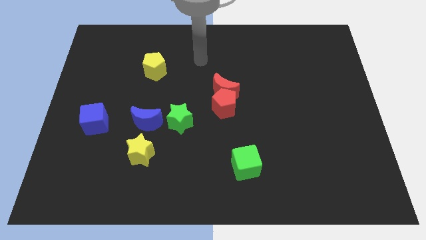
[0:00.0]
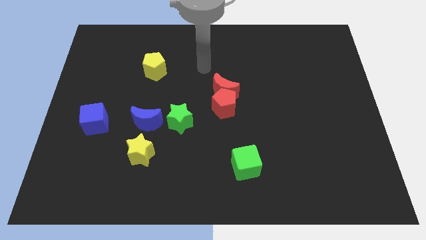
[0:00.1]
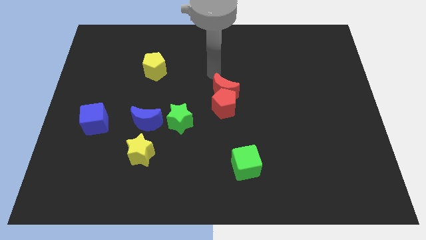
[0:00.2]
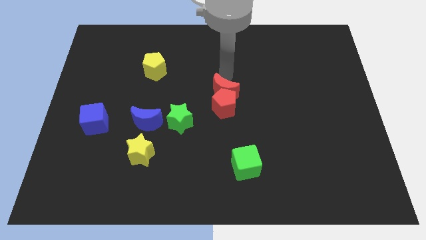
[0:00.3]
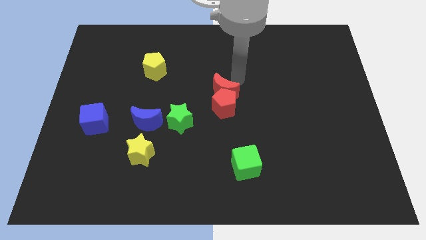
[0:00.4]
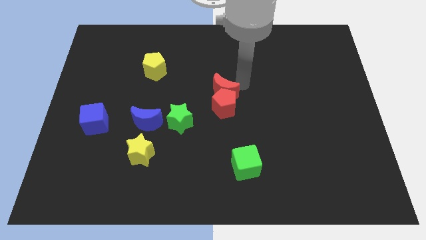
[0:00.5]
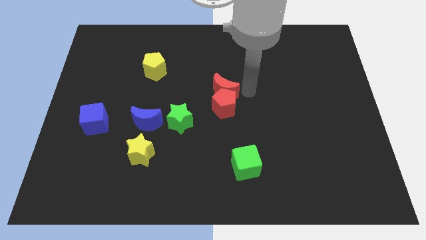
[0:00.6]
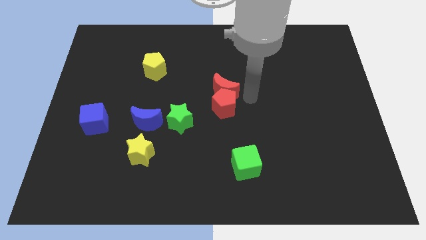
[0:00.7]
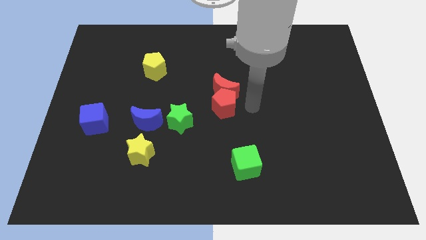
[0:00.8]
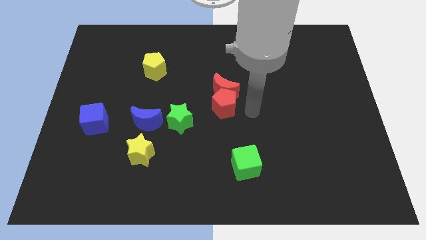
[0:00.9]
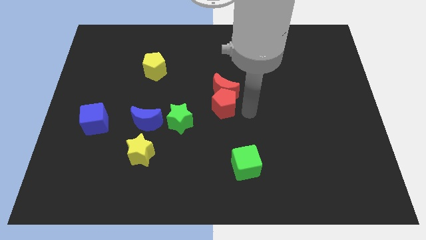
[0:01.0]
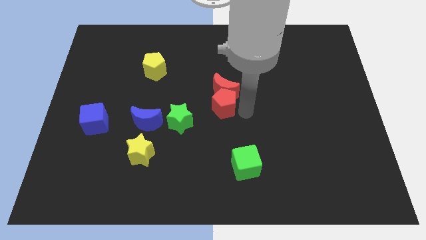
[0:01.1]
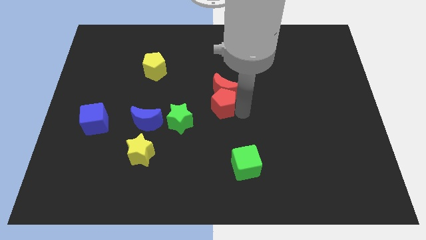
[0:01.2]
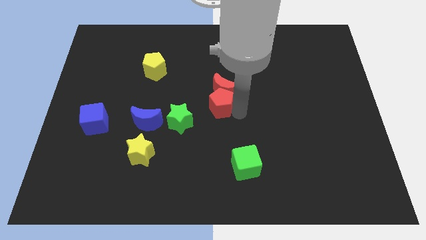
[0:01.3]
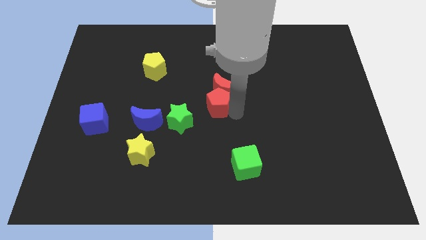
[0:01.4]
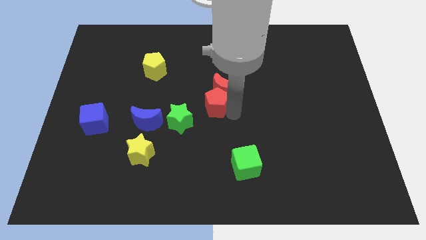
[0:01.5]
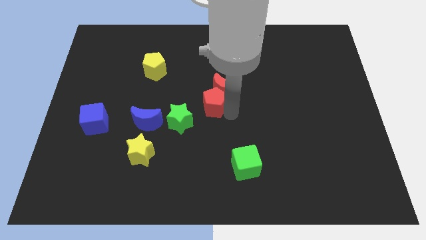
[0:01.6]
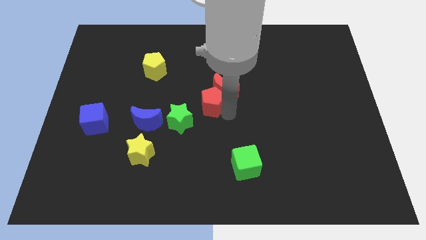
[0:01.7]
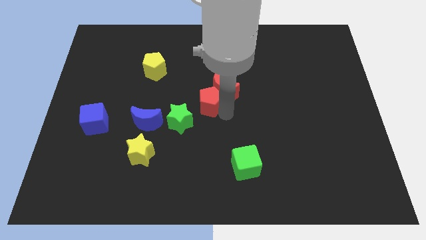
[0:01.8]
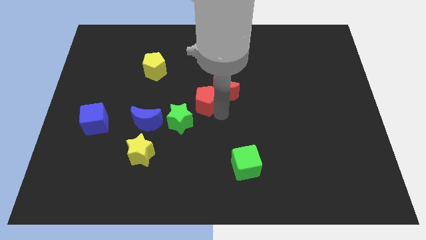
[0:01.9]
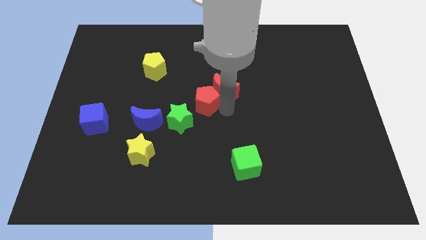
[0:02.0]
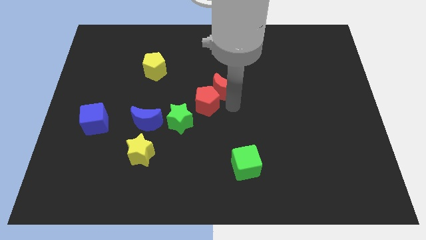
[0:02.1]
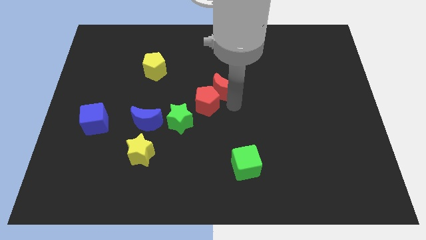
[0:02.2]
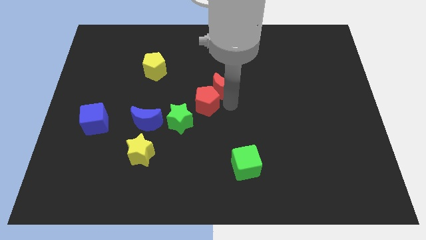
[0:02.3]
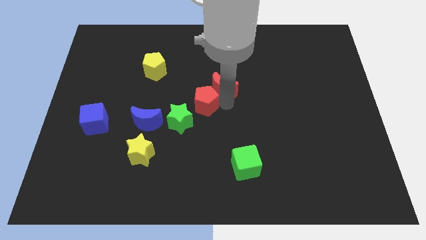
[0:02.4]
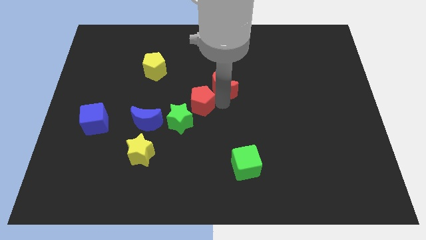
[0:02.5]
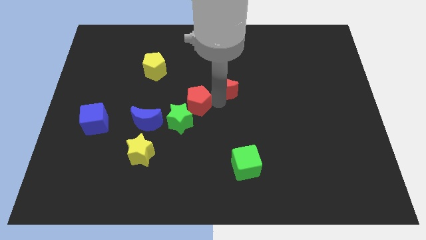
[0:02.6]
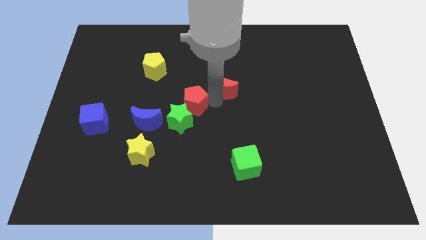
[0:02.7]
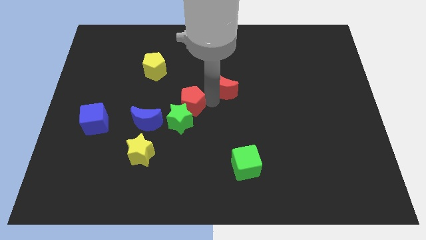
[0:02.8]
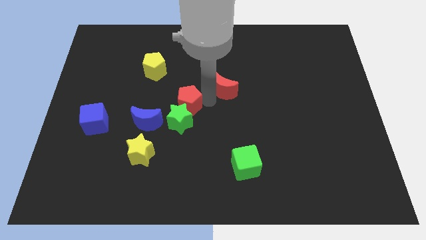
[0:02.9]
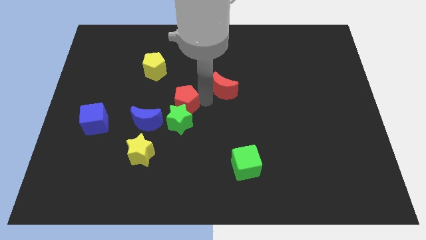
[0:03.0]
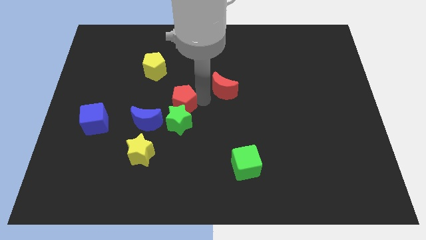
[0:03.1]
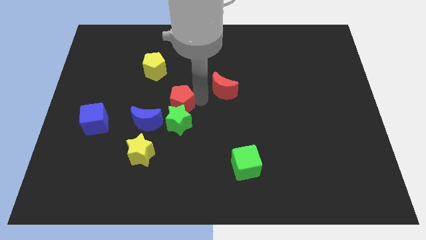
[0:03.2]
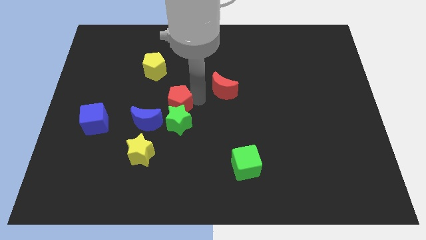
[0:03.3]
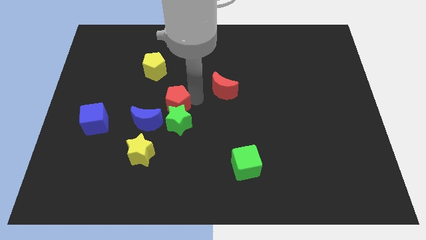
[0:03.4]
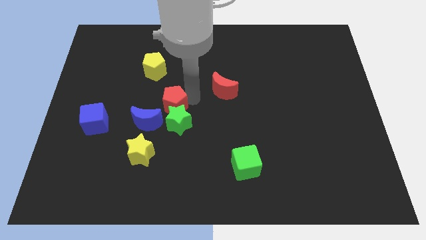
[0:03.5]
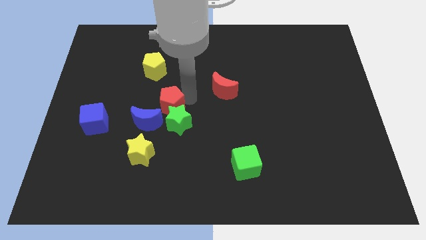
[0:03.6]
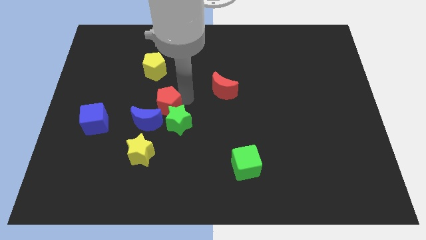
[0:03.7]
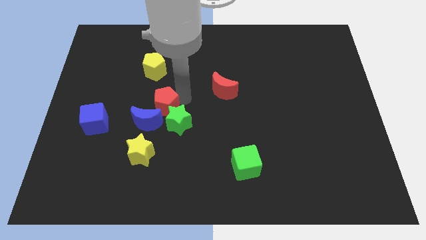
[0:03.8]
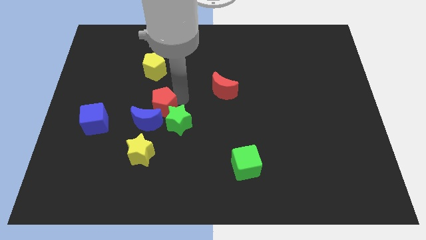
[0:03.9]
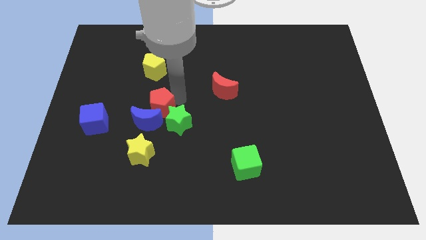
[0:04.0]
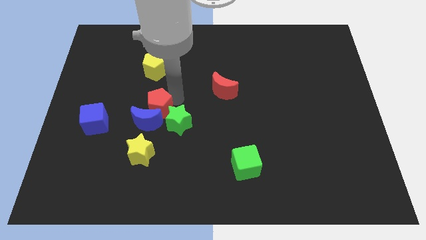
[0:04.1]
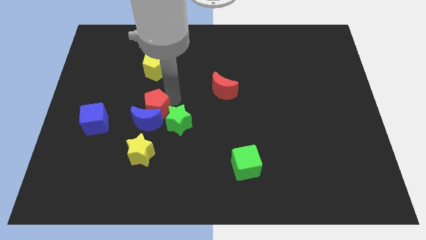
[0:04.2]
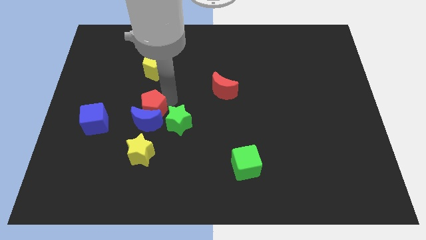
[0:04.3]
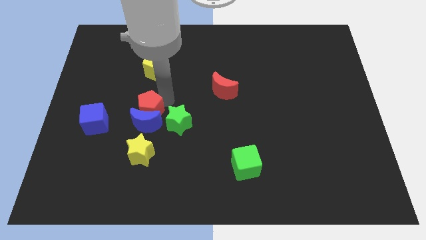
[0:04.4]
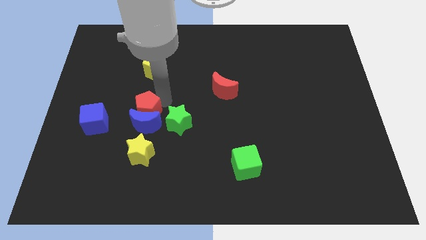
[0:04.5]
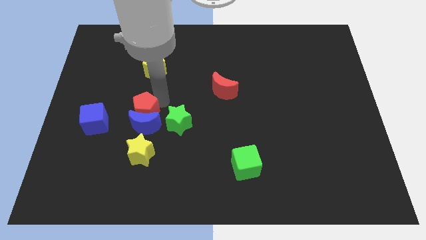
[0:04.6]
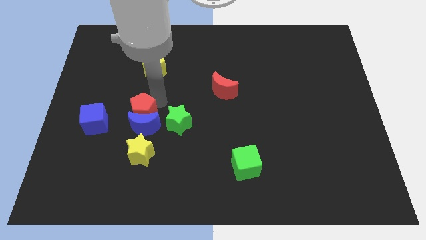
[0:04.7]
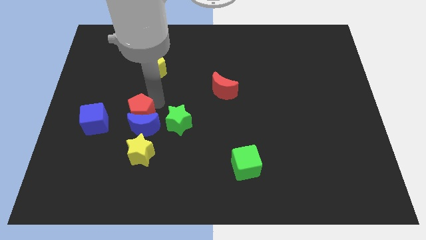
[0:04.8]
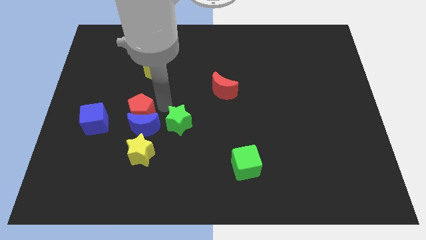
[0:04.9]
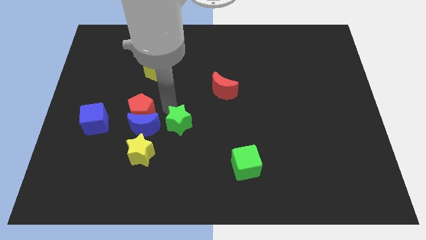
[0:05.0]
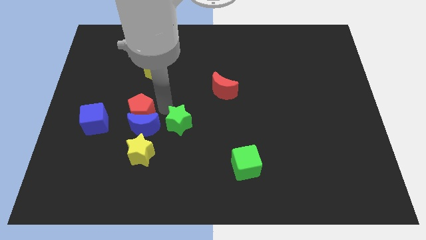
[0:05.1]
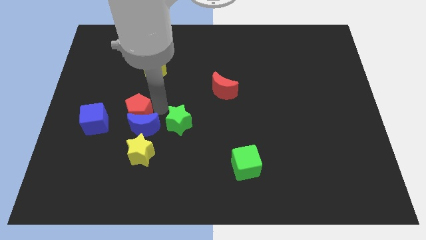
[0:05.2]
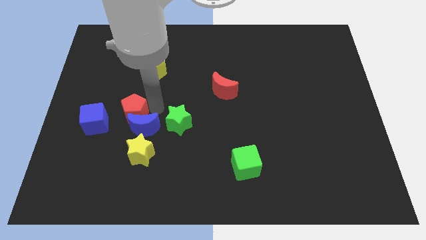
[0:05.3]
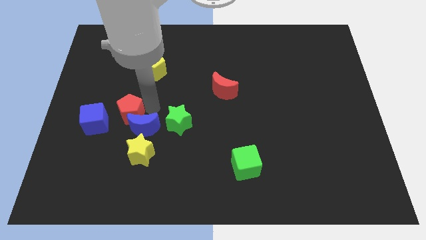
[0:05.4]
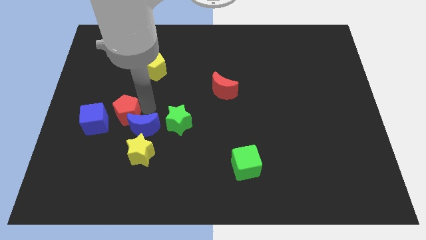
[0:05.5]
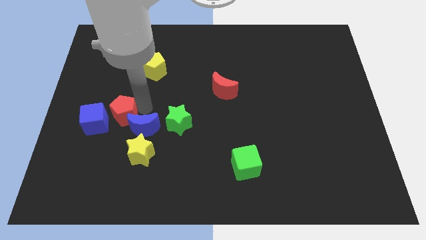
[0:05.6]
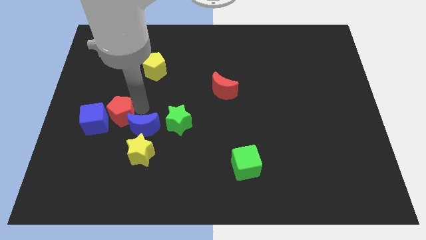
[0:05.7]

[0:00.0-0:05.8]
slide the red pentagon close to the blue cube
